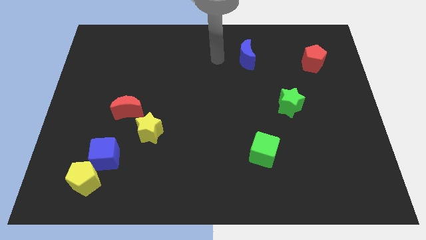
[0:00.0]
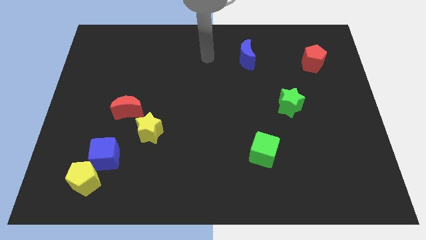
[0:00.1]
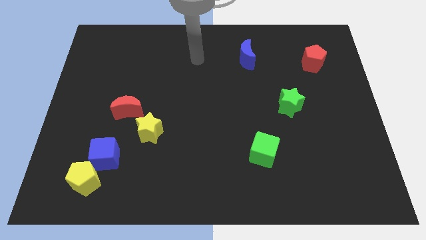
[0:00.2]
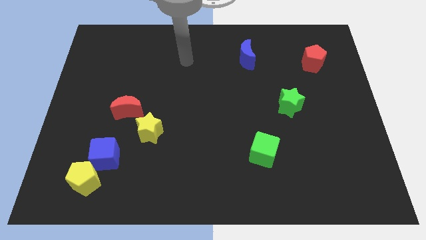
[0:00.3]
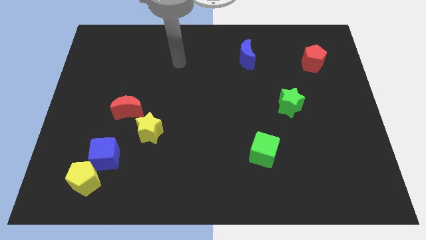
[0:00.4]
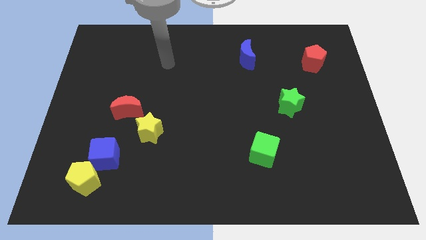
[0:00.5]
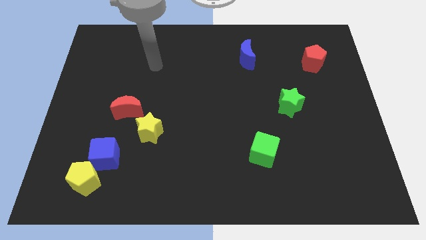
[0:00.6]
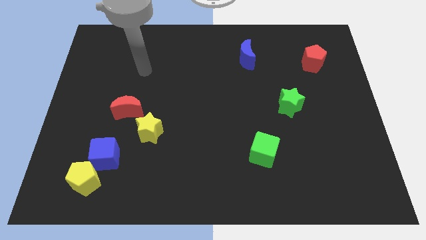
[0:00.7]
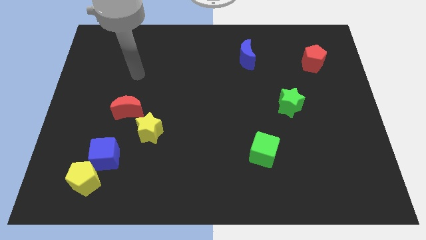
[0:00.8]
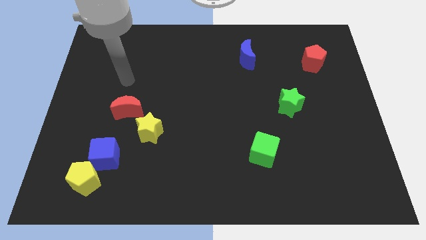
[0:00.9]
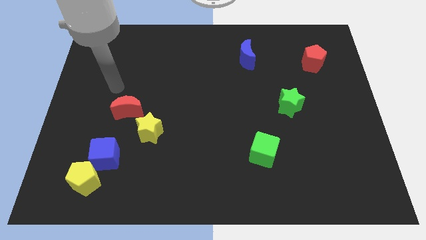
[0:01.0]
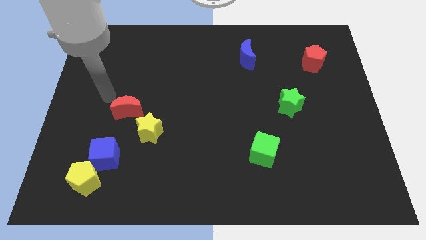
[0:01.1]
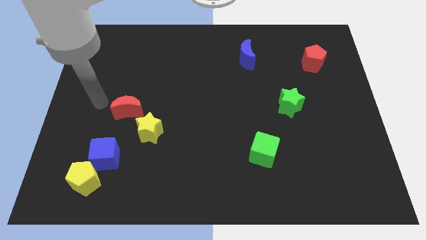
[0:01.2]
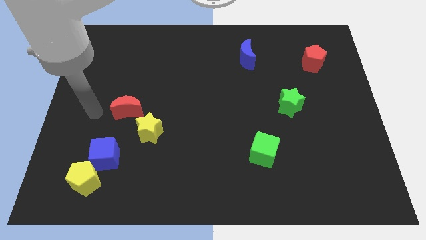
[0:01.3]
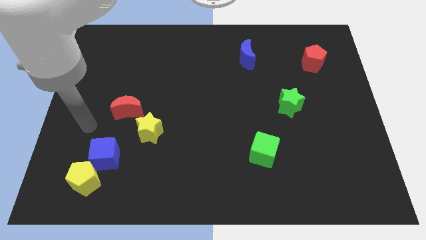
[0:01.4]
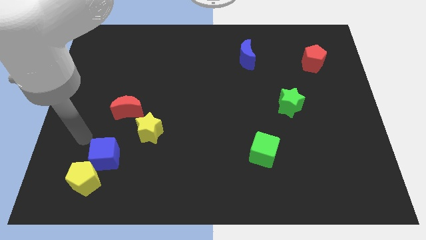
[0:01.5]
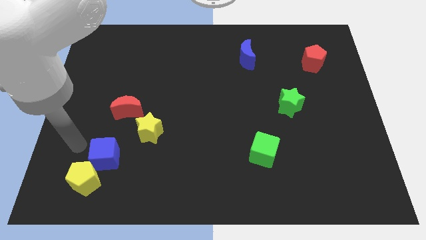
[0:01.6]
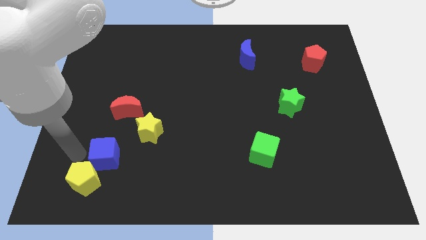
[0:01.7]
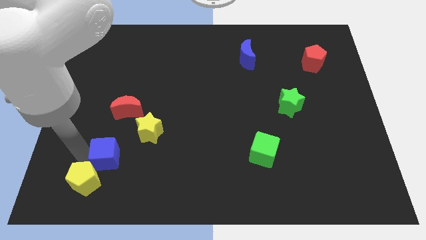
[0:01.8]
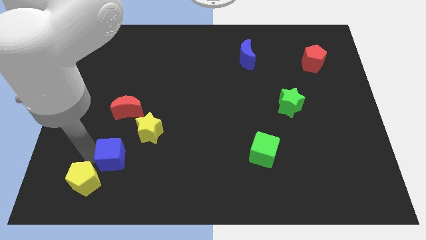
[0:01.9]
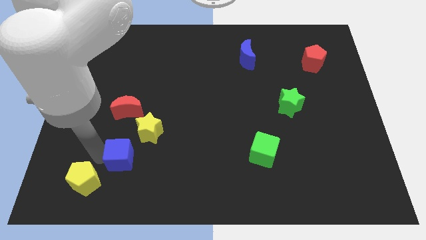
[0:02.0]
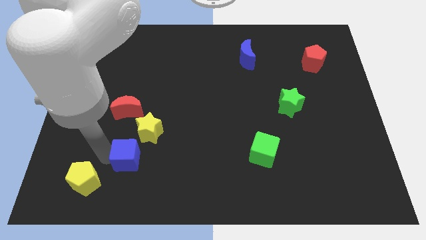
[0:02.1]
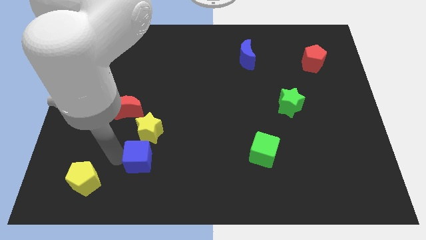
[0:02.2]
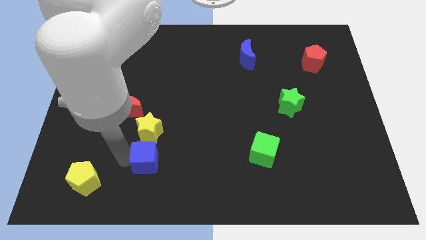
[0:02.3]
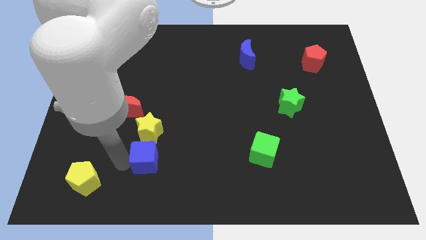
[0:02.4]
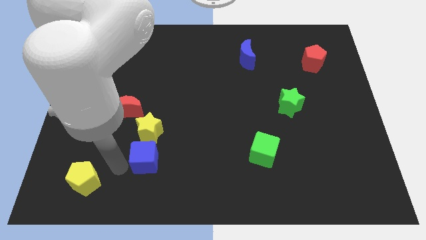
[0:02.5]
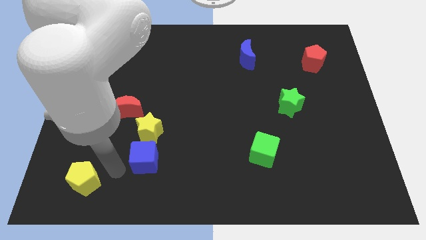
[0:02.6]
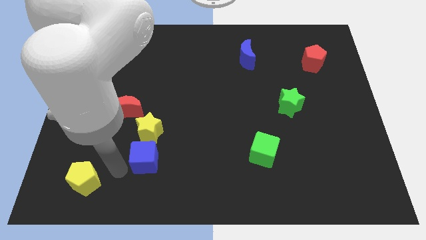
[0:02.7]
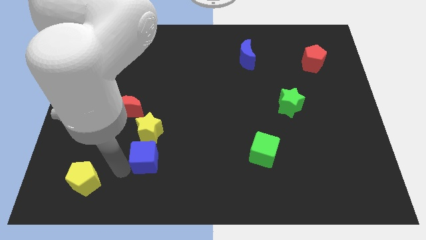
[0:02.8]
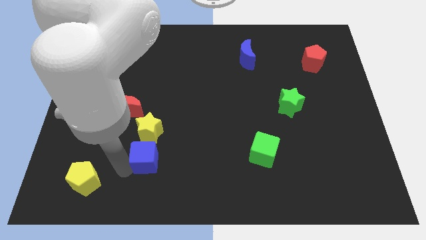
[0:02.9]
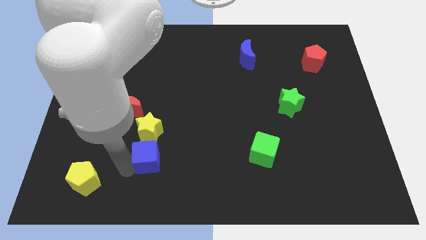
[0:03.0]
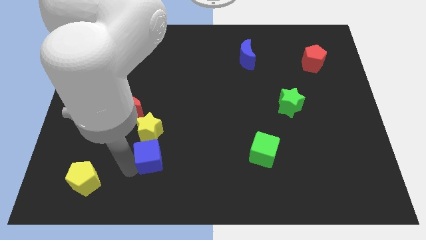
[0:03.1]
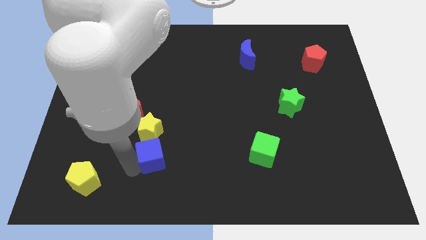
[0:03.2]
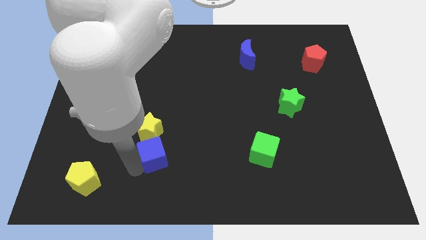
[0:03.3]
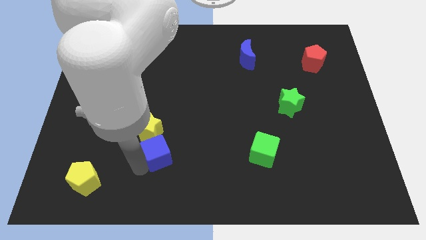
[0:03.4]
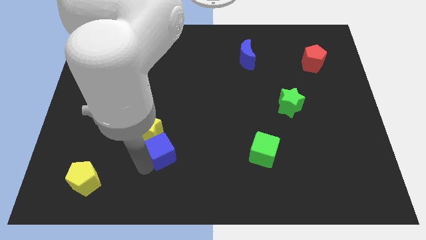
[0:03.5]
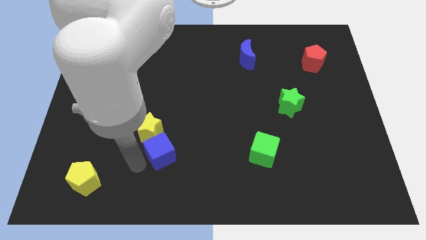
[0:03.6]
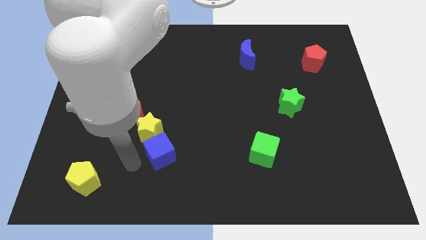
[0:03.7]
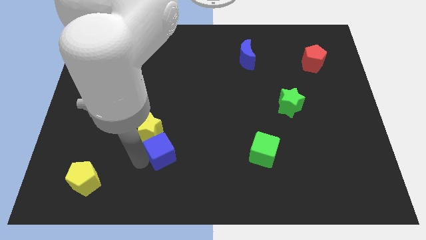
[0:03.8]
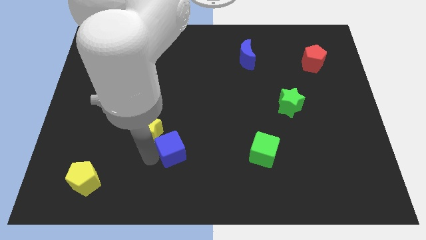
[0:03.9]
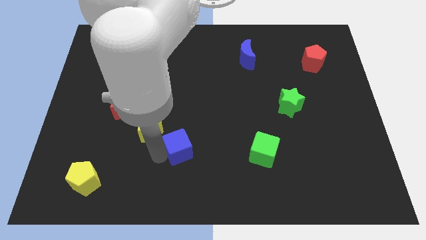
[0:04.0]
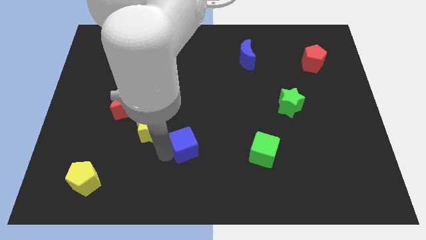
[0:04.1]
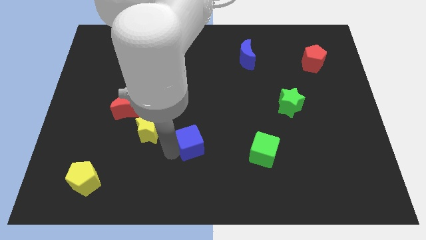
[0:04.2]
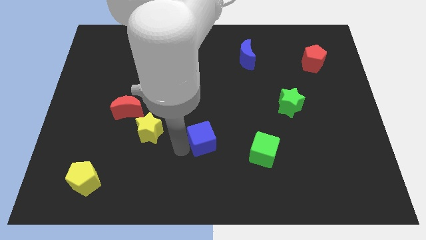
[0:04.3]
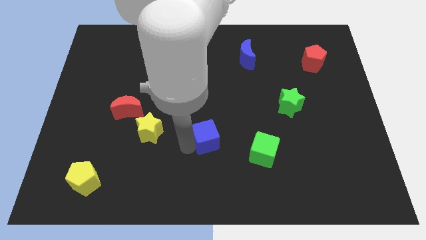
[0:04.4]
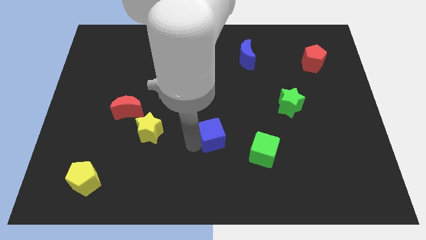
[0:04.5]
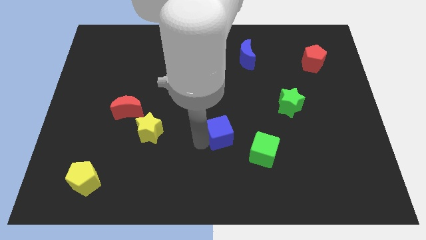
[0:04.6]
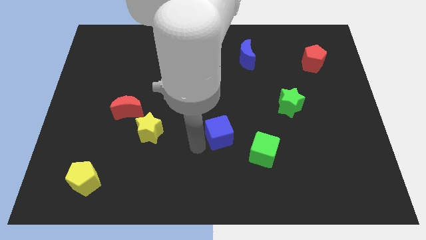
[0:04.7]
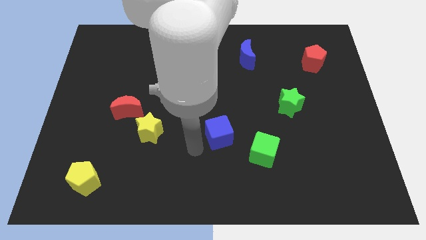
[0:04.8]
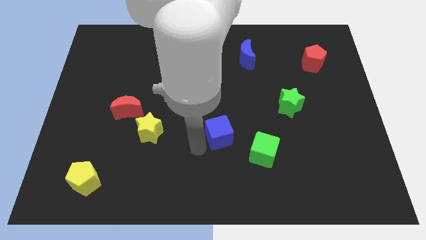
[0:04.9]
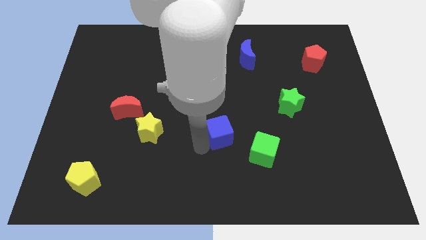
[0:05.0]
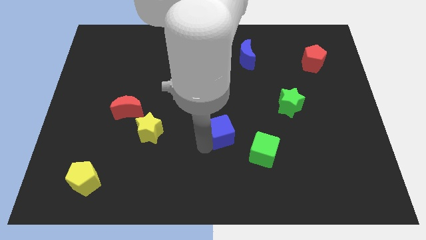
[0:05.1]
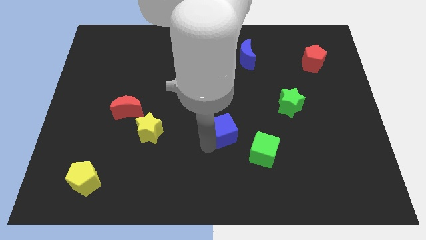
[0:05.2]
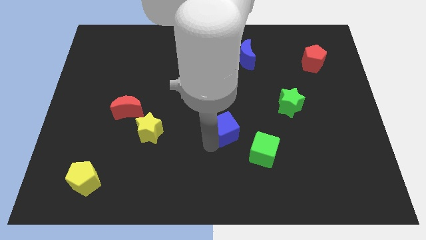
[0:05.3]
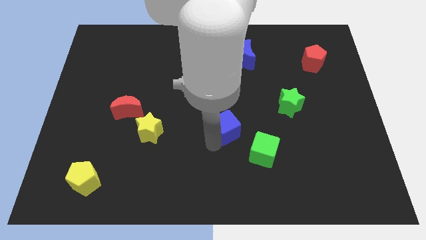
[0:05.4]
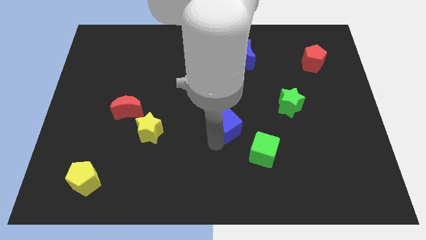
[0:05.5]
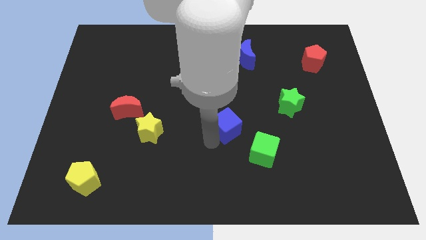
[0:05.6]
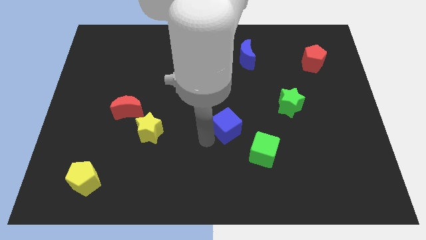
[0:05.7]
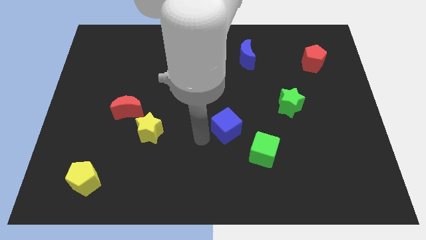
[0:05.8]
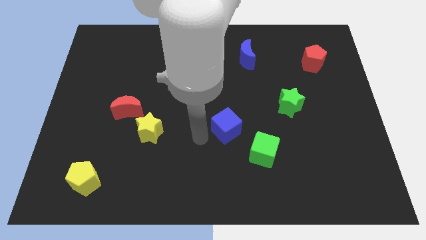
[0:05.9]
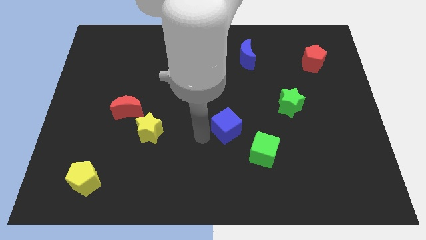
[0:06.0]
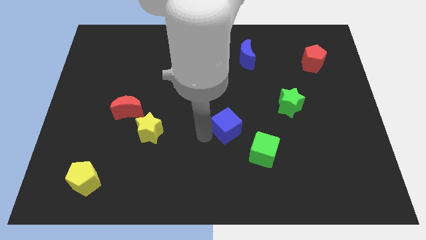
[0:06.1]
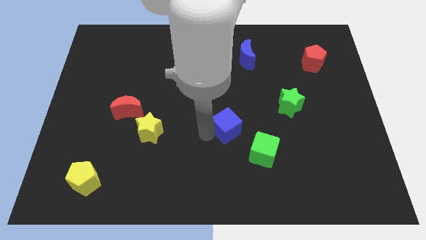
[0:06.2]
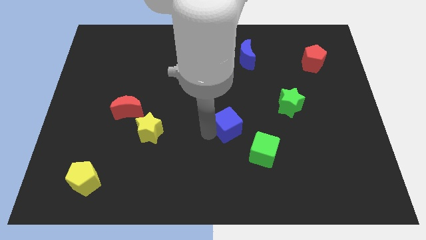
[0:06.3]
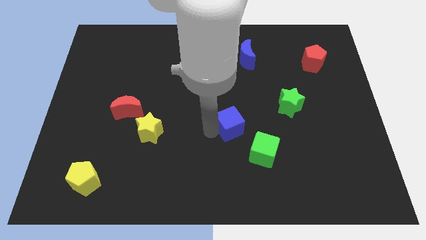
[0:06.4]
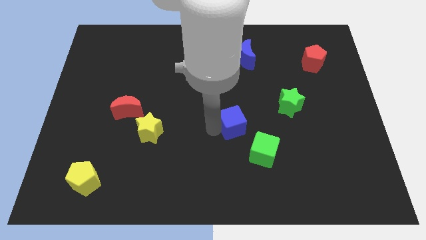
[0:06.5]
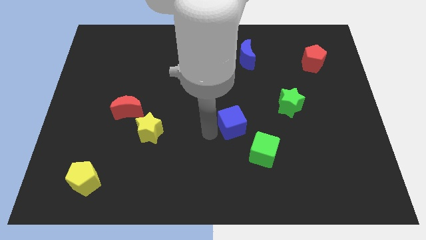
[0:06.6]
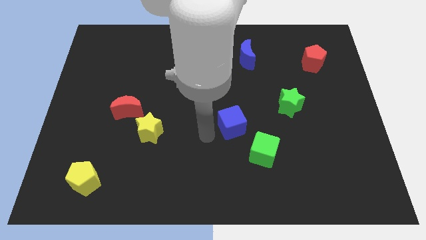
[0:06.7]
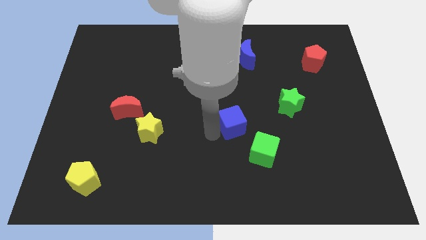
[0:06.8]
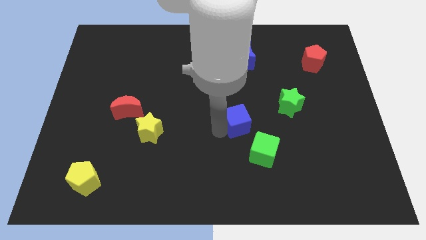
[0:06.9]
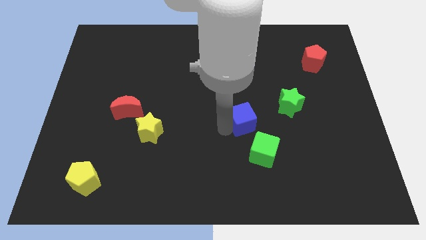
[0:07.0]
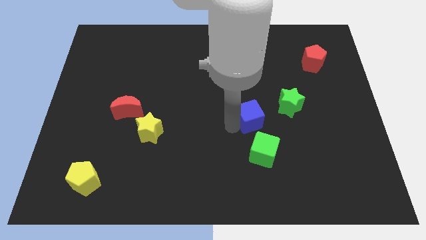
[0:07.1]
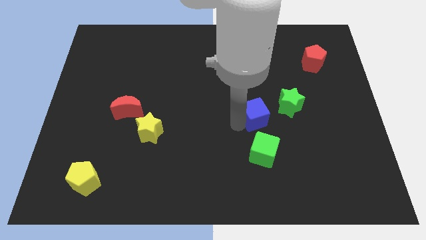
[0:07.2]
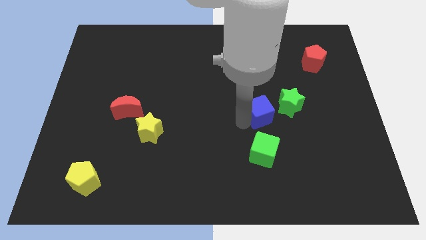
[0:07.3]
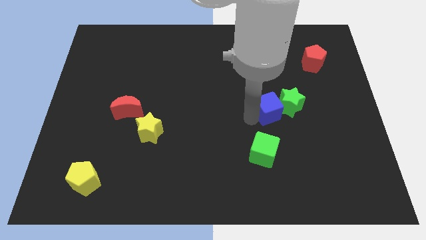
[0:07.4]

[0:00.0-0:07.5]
put the blue cube close to the green star
